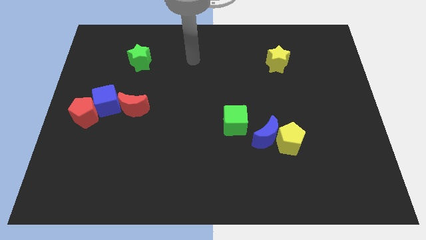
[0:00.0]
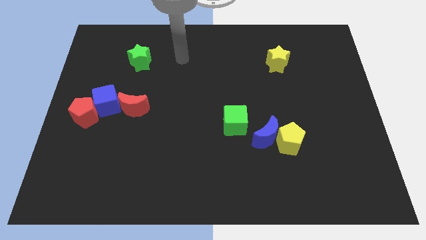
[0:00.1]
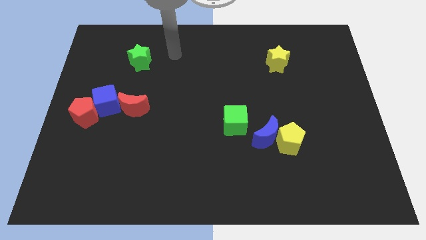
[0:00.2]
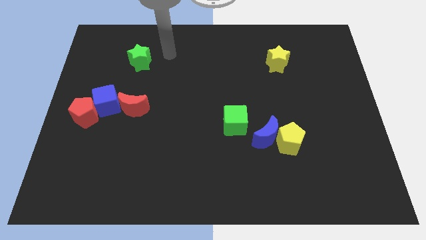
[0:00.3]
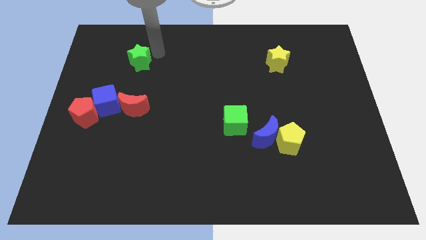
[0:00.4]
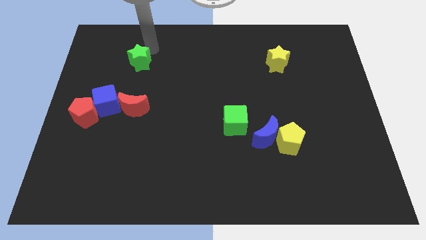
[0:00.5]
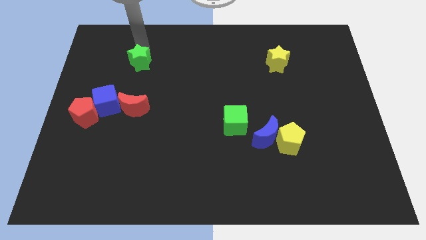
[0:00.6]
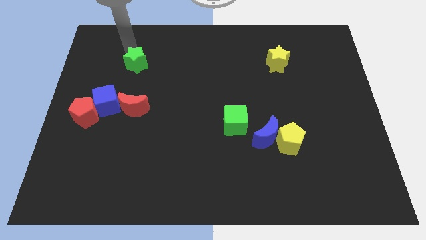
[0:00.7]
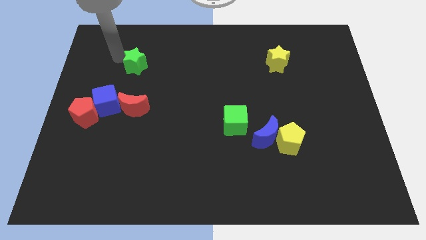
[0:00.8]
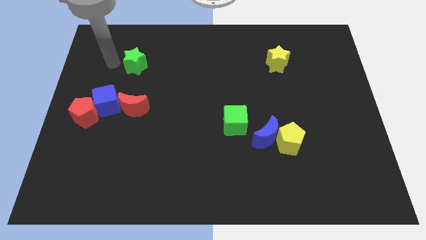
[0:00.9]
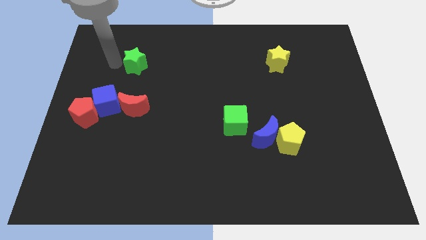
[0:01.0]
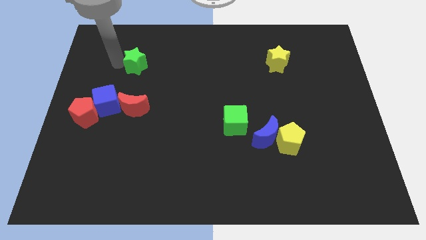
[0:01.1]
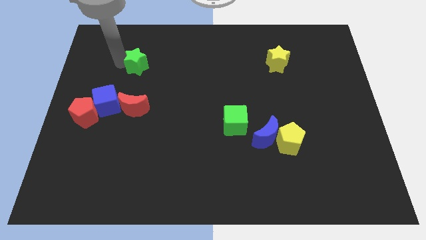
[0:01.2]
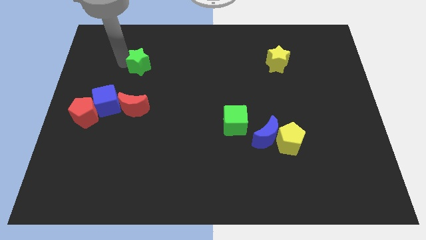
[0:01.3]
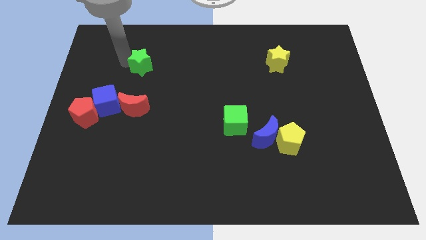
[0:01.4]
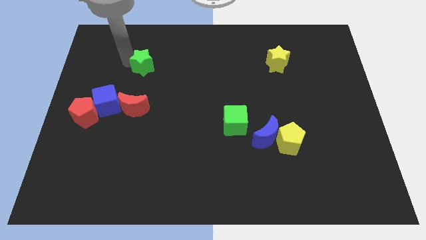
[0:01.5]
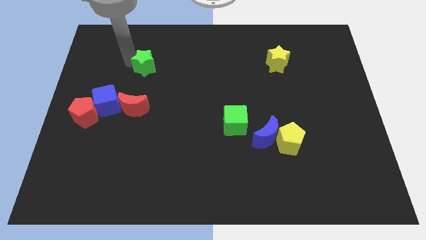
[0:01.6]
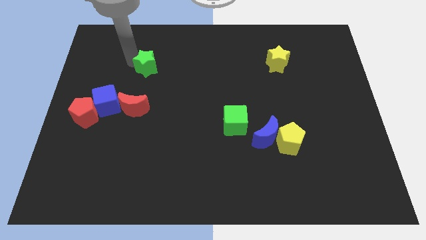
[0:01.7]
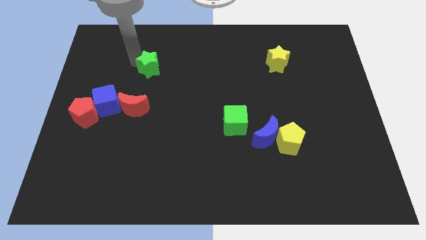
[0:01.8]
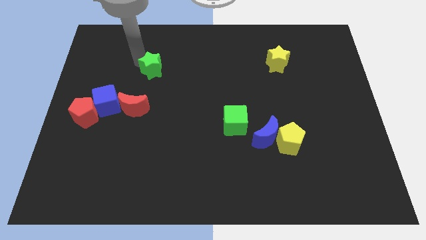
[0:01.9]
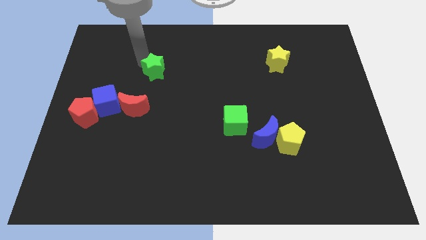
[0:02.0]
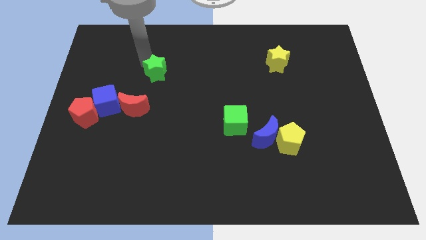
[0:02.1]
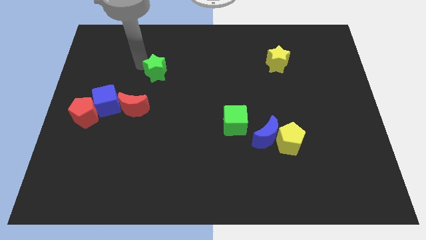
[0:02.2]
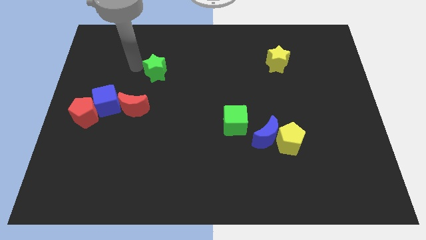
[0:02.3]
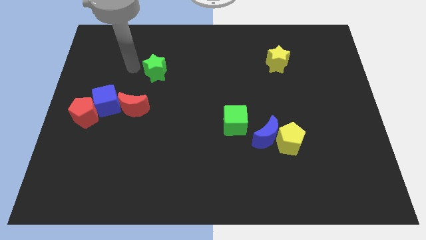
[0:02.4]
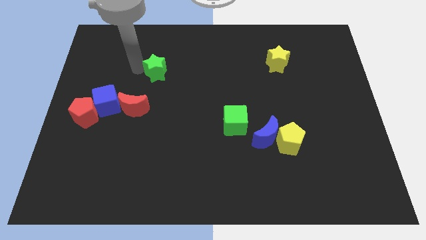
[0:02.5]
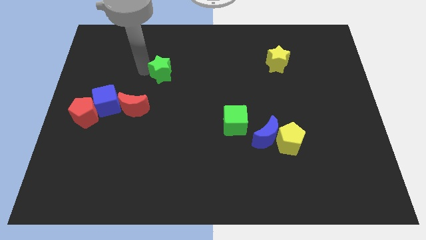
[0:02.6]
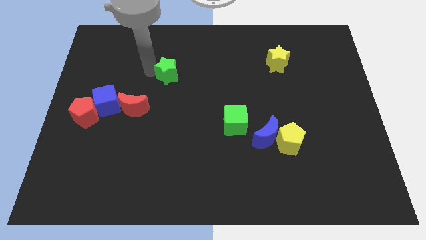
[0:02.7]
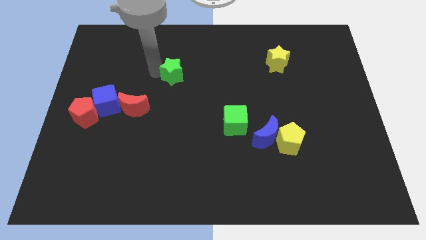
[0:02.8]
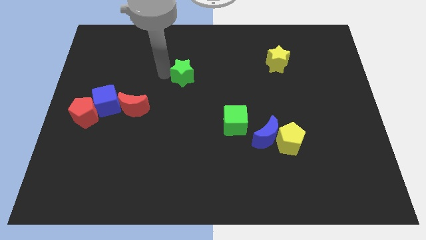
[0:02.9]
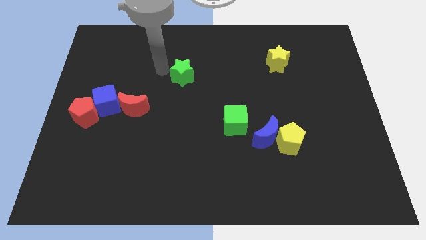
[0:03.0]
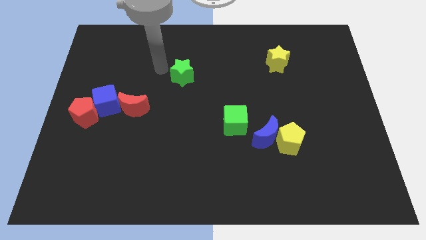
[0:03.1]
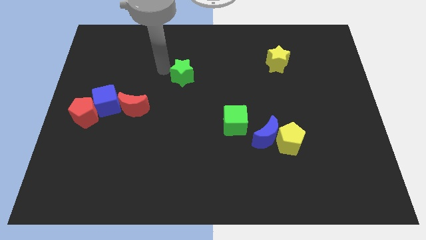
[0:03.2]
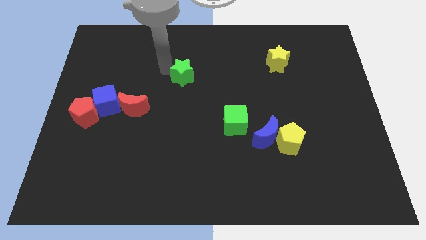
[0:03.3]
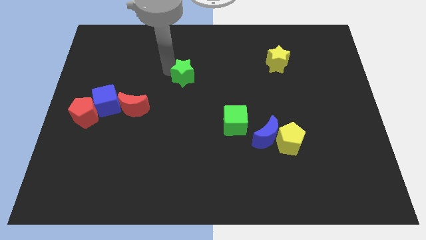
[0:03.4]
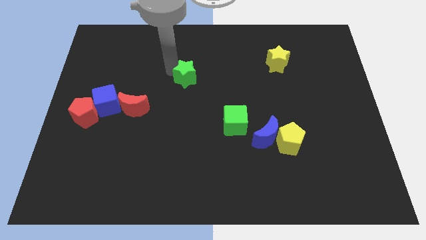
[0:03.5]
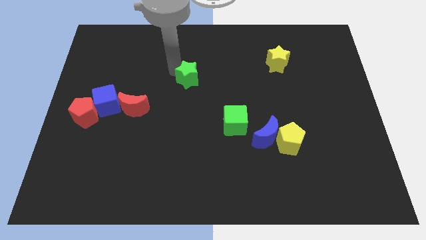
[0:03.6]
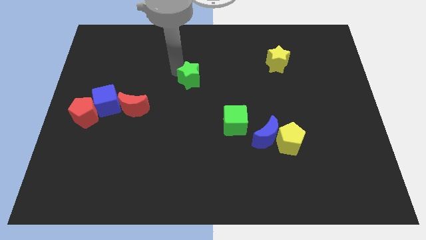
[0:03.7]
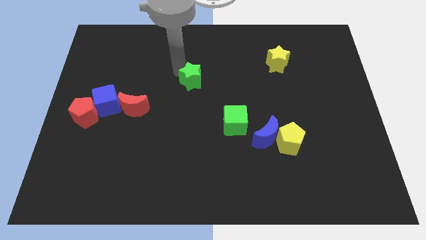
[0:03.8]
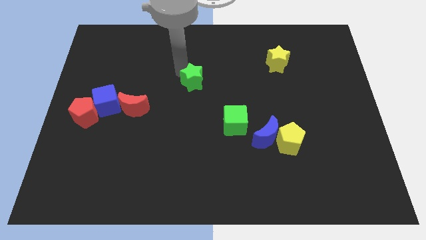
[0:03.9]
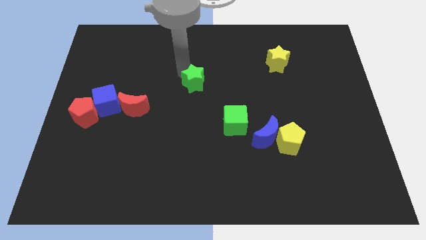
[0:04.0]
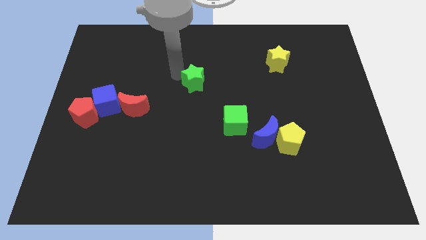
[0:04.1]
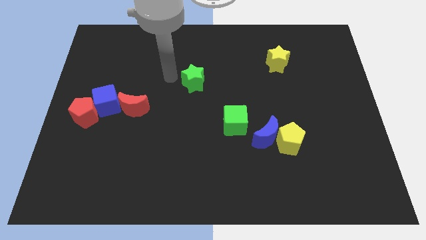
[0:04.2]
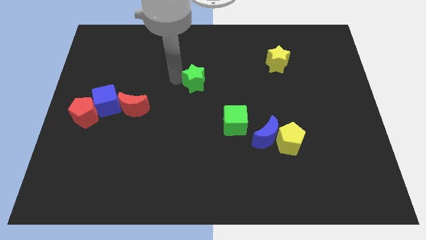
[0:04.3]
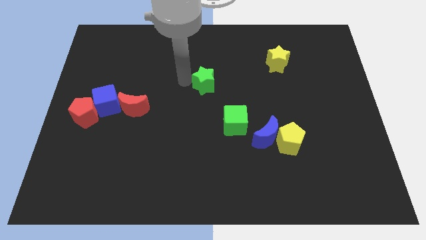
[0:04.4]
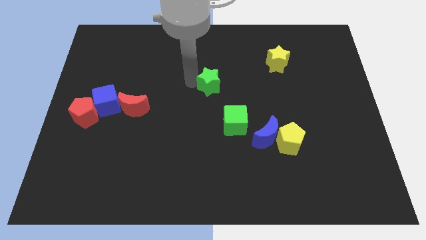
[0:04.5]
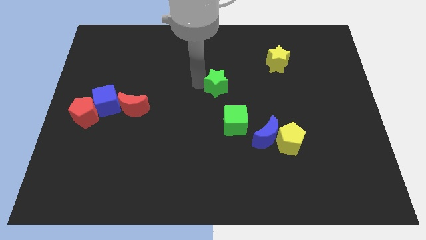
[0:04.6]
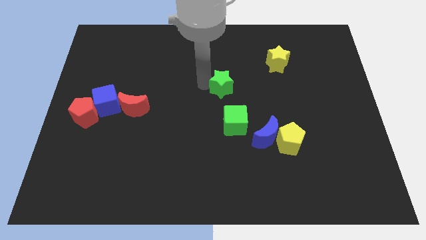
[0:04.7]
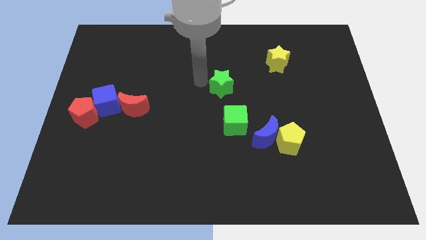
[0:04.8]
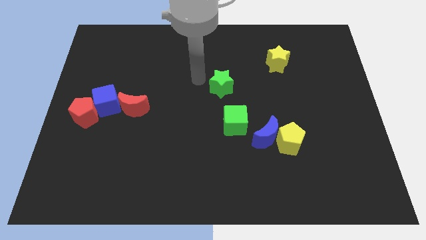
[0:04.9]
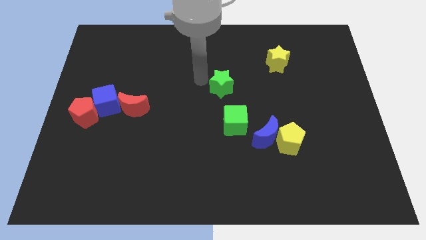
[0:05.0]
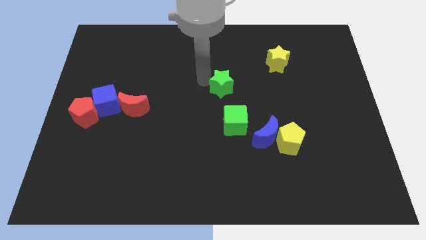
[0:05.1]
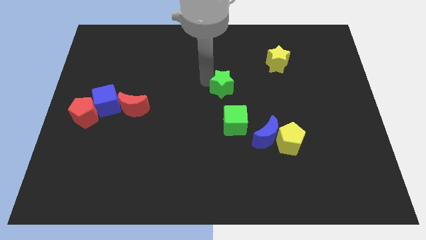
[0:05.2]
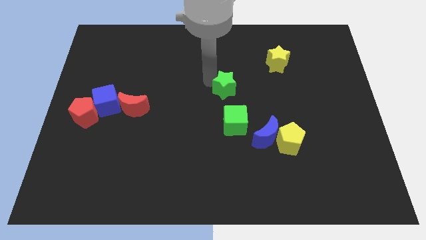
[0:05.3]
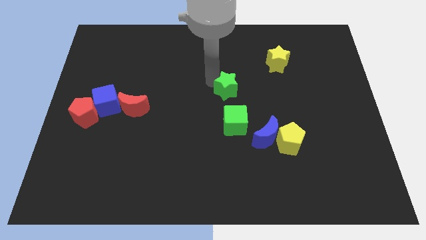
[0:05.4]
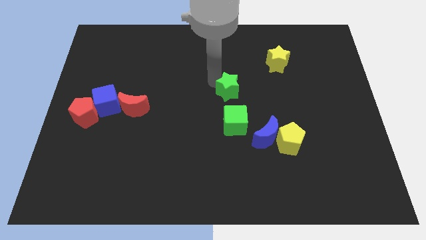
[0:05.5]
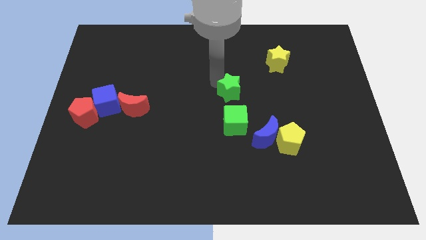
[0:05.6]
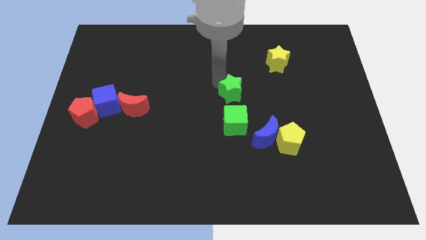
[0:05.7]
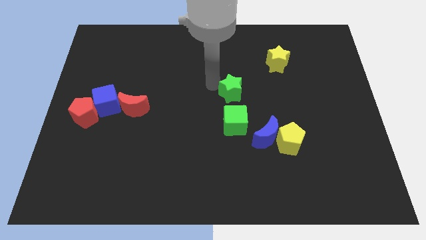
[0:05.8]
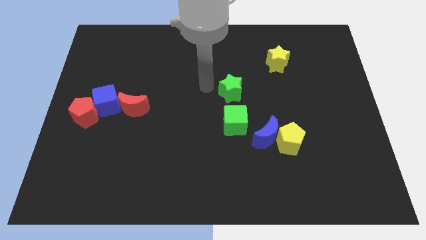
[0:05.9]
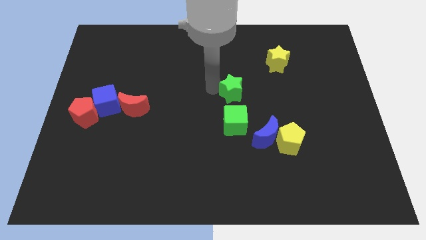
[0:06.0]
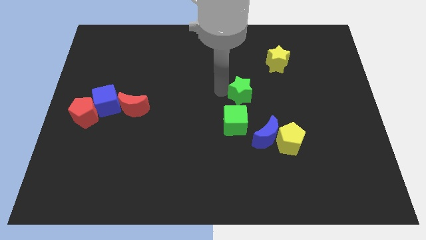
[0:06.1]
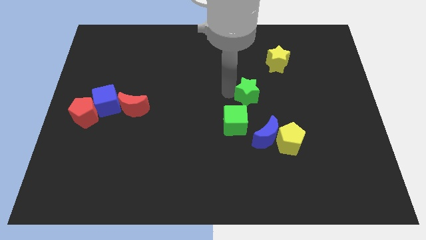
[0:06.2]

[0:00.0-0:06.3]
slide the green star to the top of the blue moon

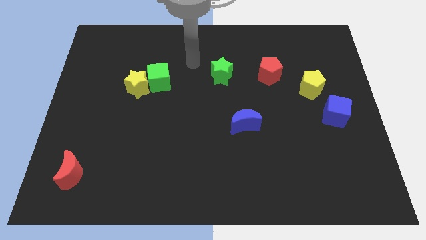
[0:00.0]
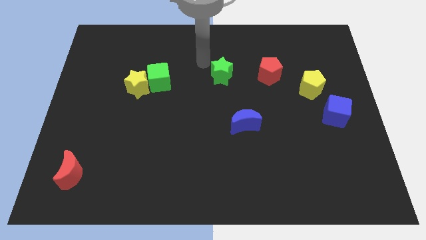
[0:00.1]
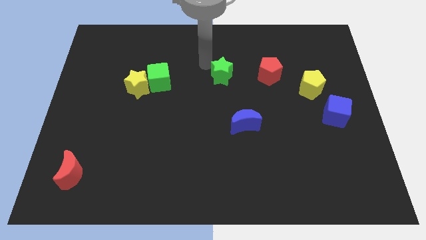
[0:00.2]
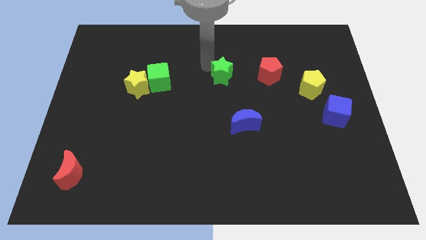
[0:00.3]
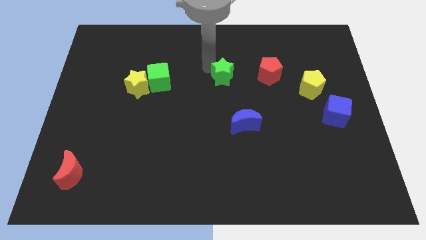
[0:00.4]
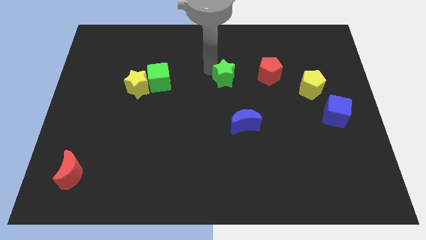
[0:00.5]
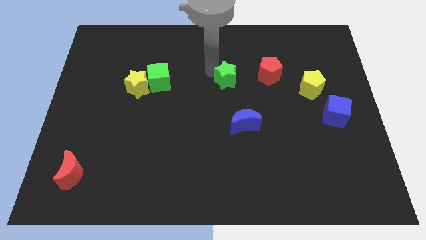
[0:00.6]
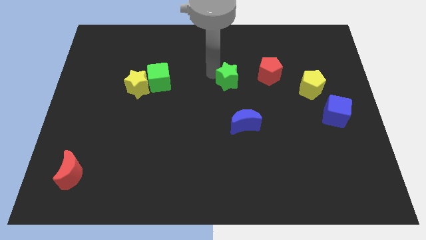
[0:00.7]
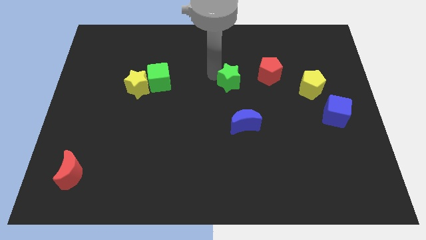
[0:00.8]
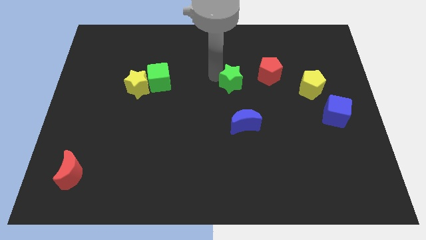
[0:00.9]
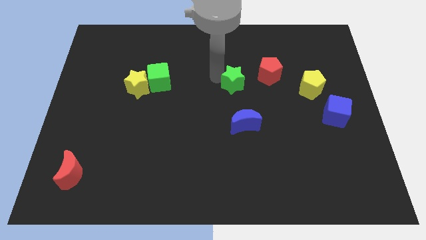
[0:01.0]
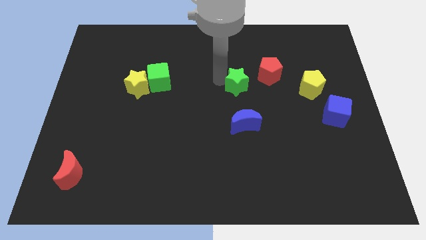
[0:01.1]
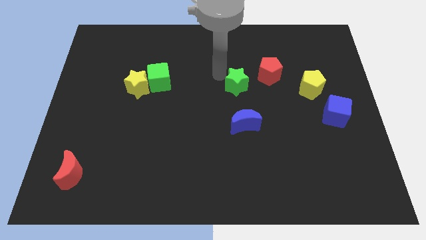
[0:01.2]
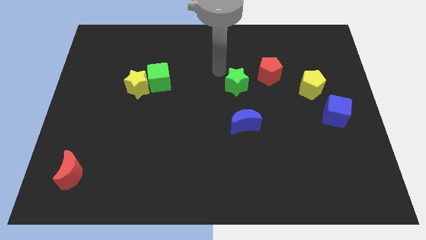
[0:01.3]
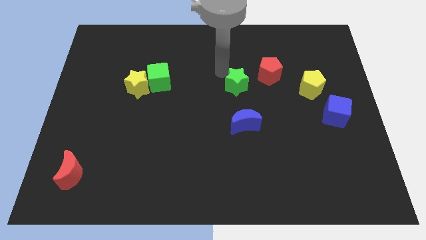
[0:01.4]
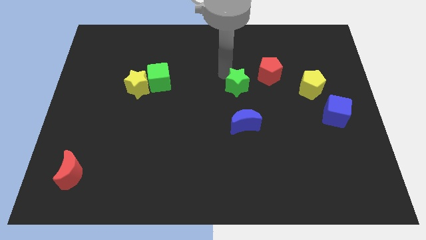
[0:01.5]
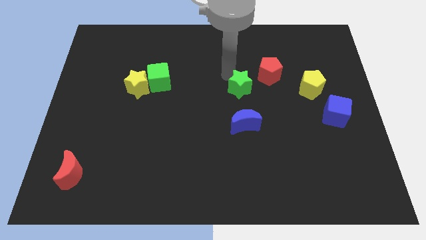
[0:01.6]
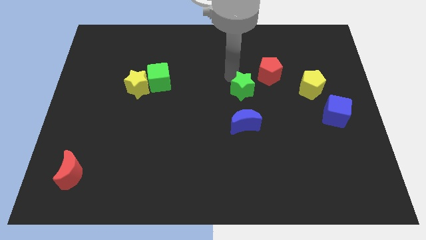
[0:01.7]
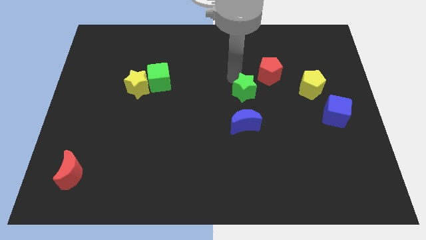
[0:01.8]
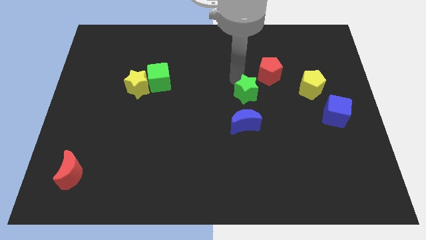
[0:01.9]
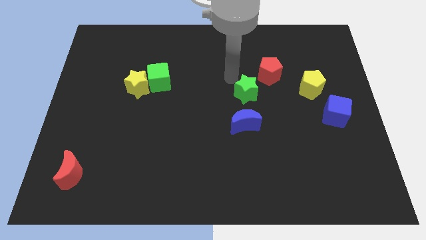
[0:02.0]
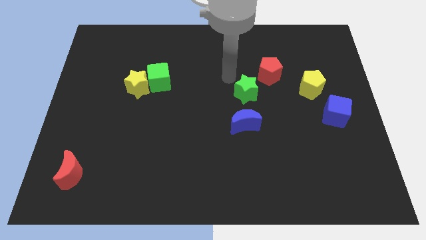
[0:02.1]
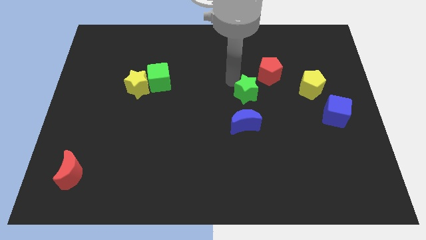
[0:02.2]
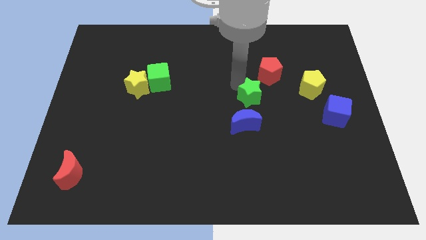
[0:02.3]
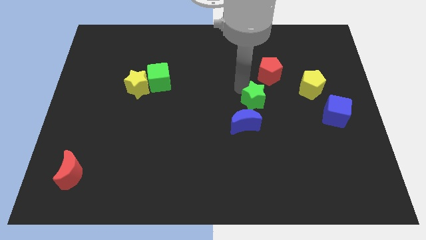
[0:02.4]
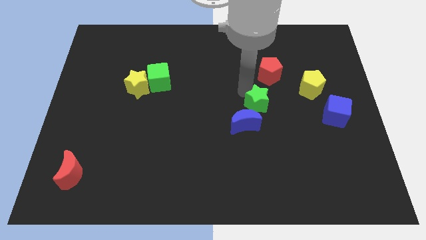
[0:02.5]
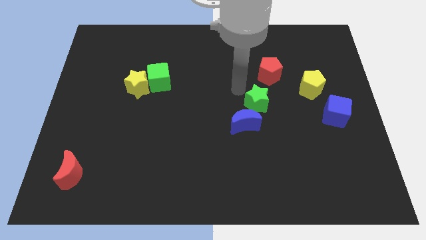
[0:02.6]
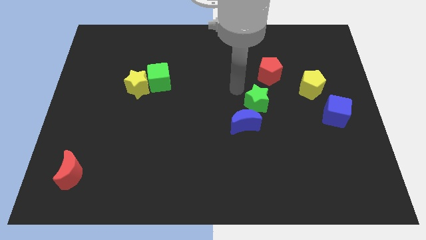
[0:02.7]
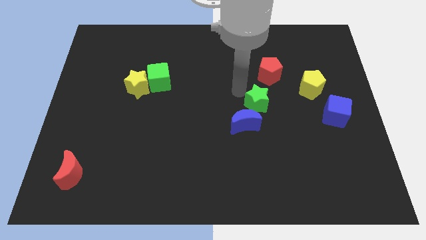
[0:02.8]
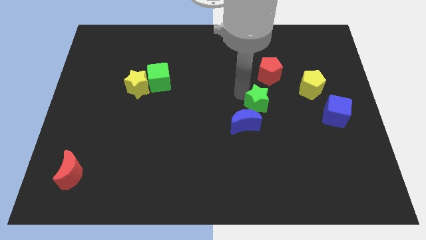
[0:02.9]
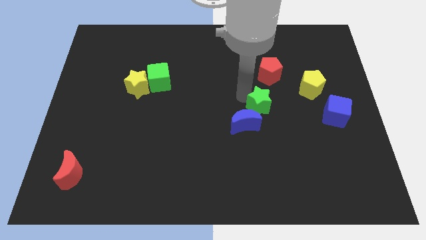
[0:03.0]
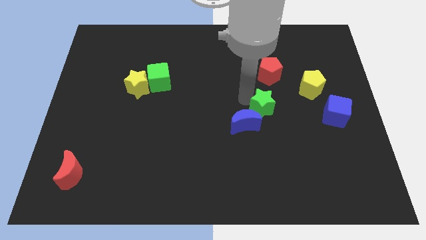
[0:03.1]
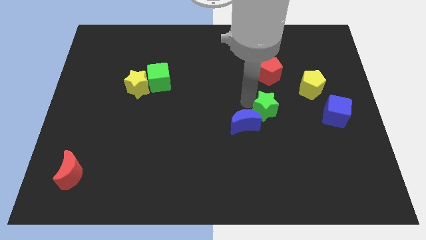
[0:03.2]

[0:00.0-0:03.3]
push the green star right of the blue moon
